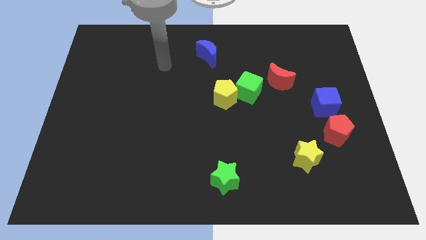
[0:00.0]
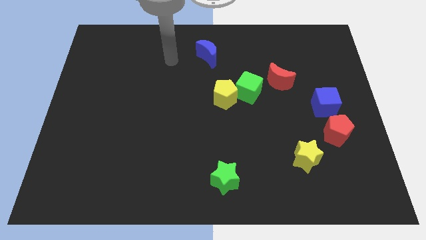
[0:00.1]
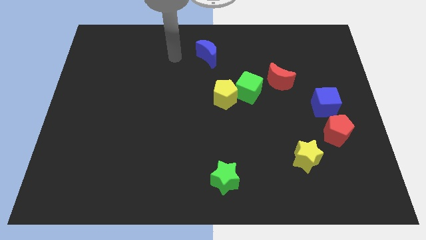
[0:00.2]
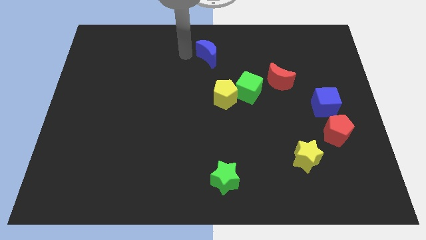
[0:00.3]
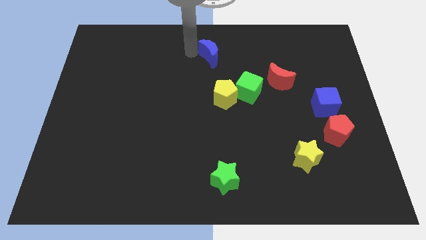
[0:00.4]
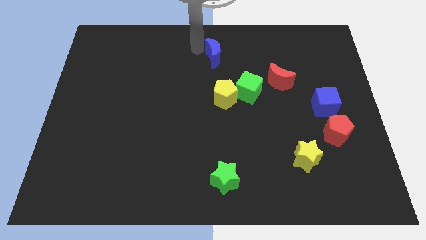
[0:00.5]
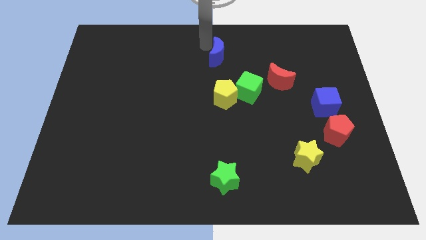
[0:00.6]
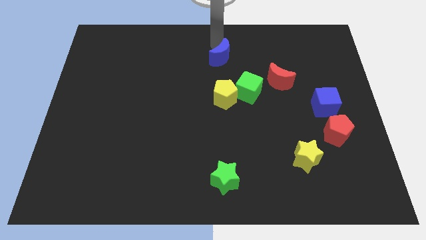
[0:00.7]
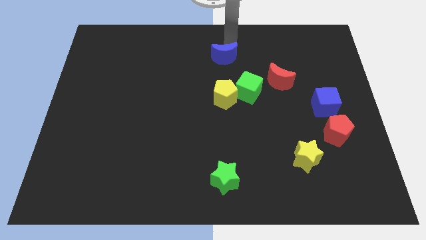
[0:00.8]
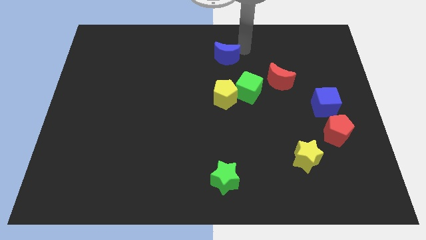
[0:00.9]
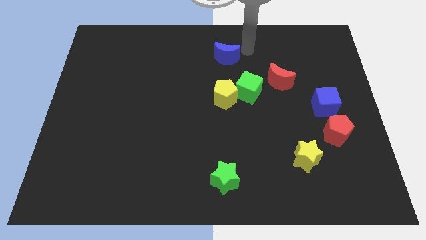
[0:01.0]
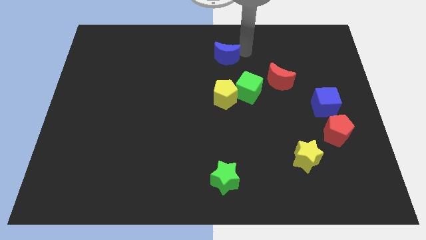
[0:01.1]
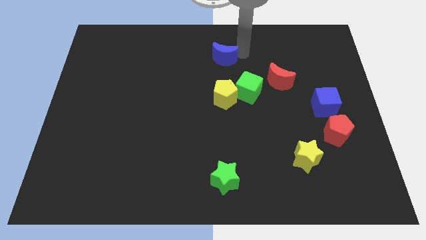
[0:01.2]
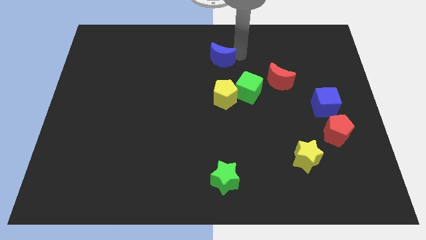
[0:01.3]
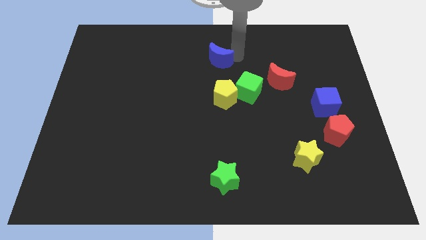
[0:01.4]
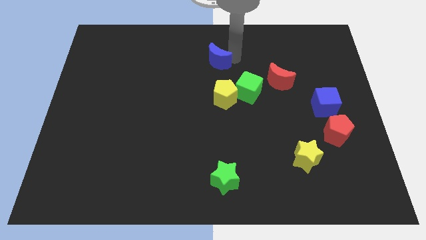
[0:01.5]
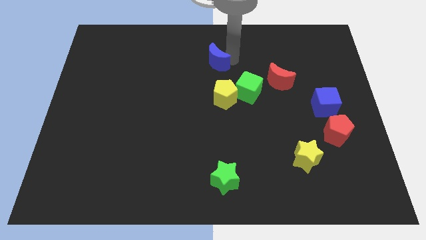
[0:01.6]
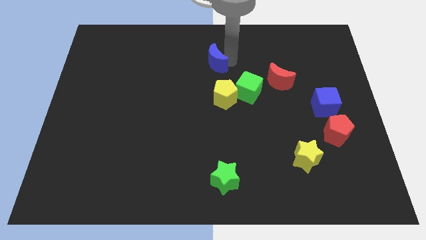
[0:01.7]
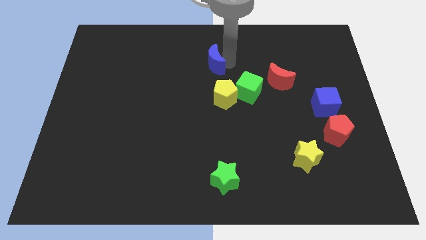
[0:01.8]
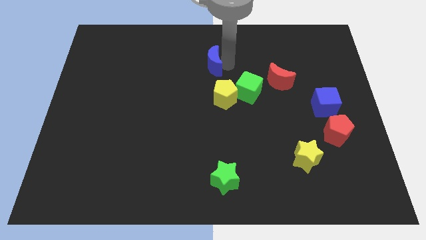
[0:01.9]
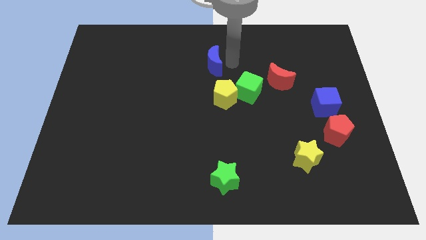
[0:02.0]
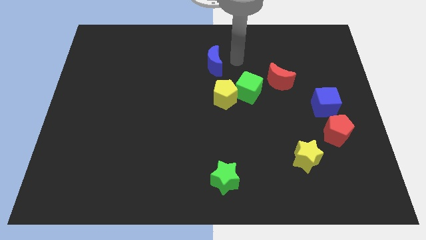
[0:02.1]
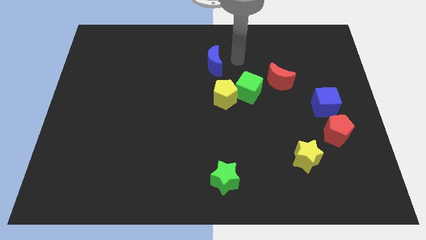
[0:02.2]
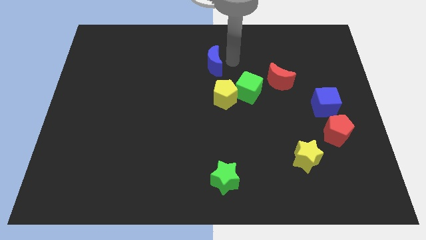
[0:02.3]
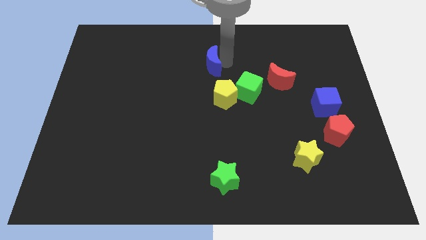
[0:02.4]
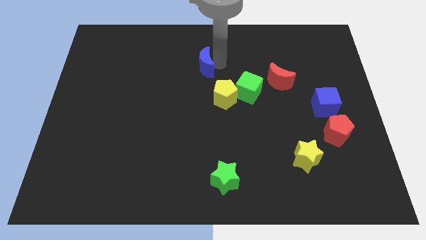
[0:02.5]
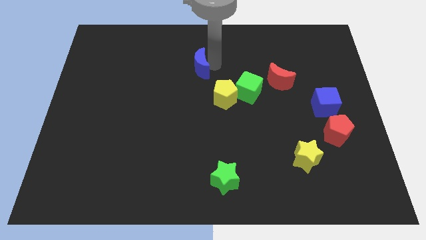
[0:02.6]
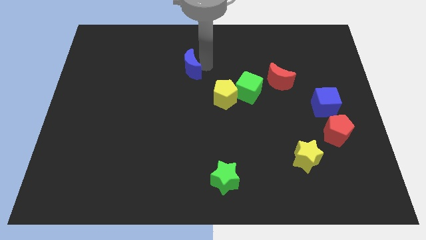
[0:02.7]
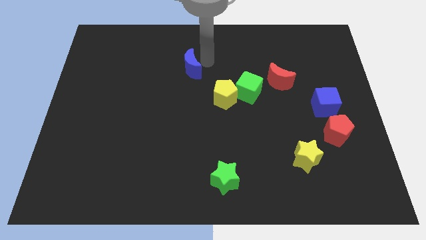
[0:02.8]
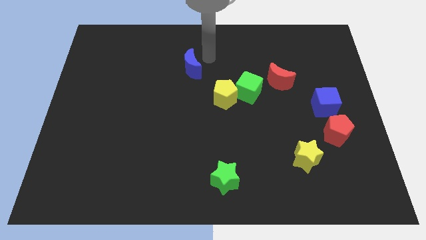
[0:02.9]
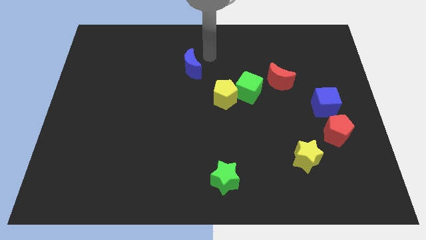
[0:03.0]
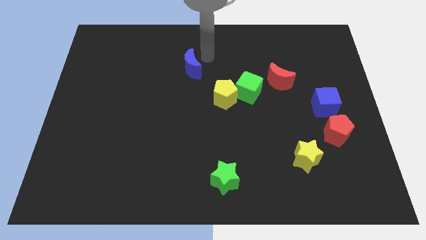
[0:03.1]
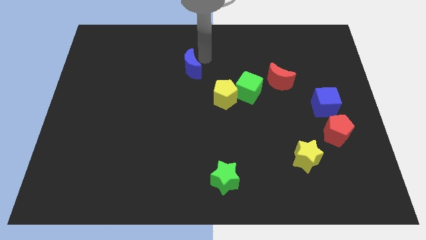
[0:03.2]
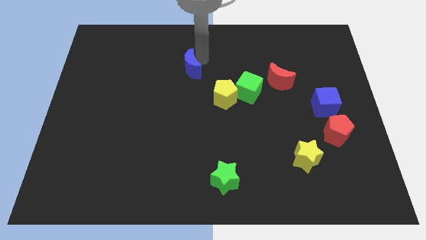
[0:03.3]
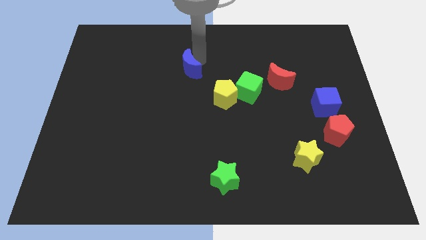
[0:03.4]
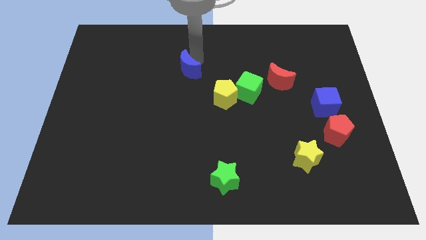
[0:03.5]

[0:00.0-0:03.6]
move the blue moon down and to the left a little

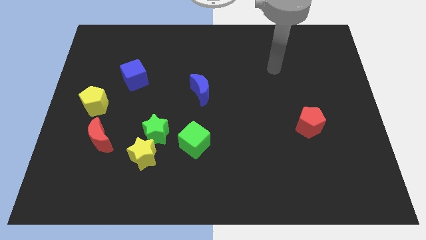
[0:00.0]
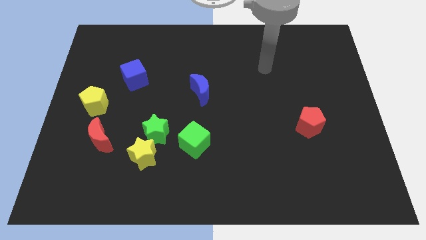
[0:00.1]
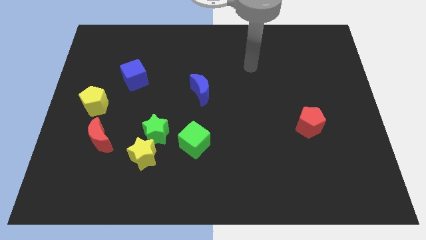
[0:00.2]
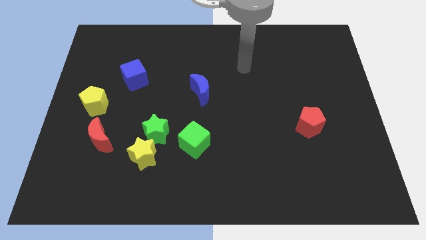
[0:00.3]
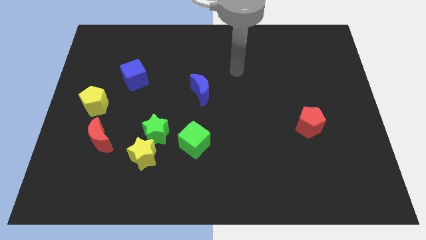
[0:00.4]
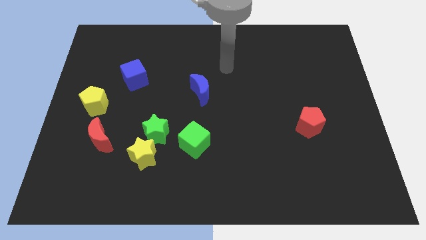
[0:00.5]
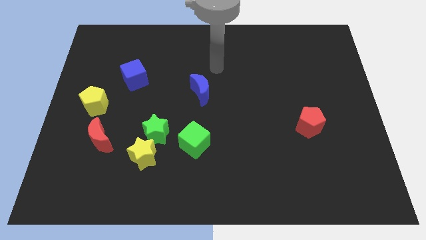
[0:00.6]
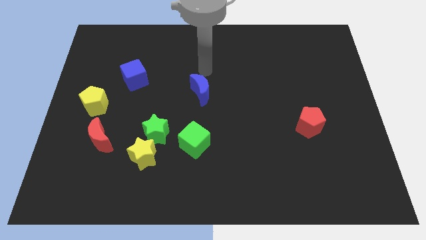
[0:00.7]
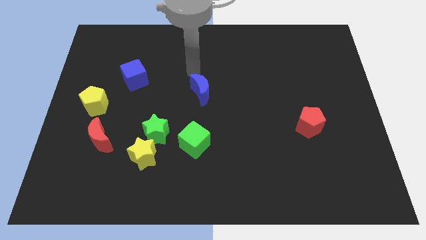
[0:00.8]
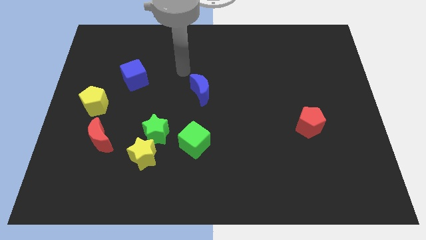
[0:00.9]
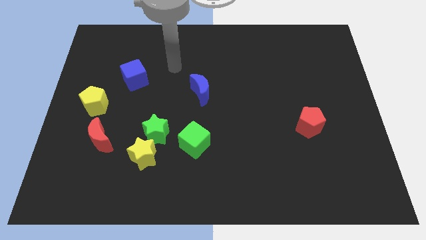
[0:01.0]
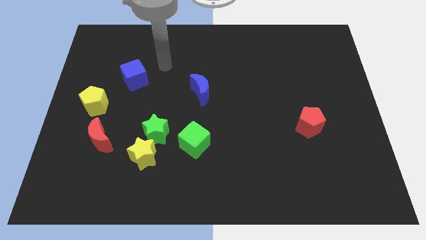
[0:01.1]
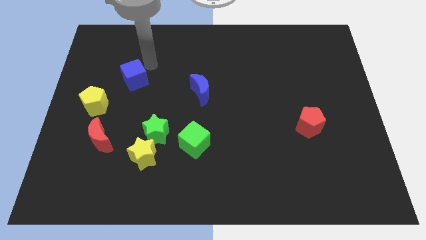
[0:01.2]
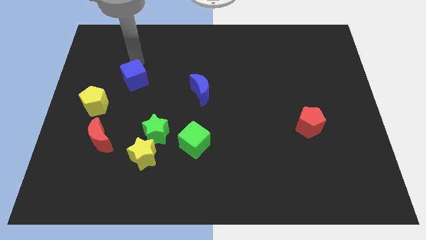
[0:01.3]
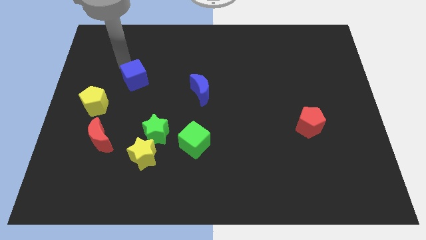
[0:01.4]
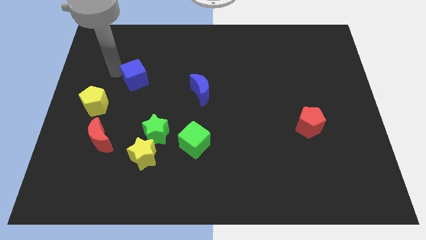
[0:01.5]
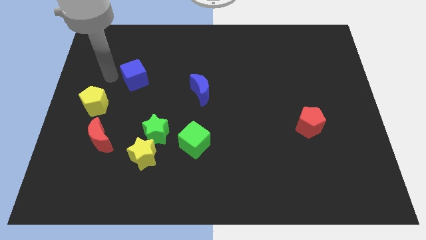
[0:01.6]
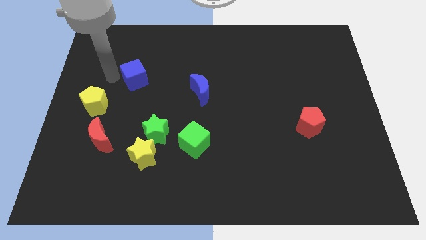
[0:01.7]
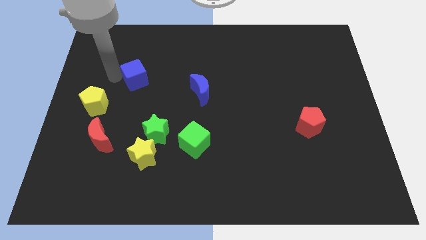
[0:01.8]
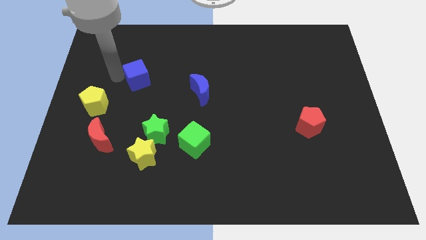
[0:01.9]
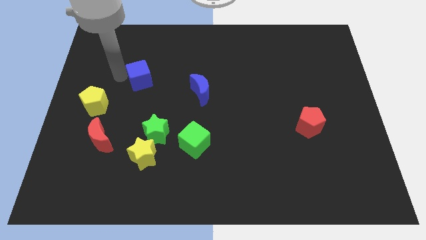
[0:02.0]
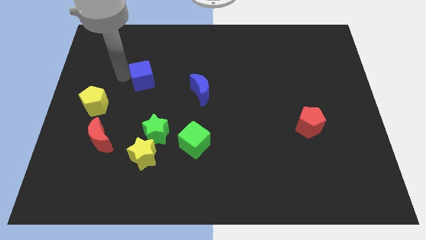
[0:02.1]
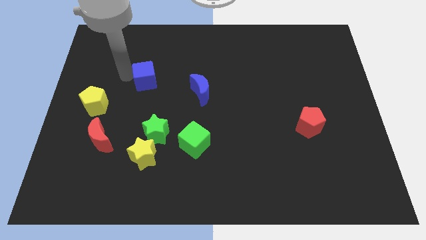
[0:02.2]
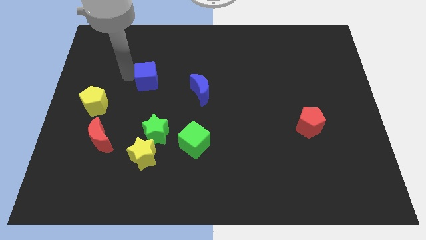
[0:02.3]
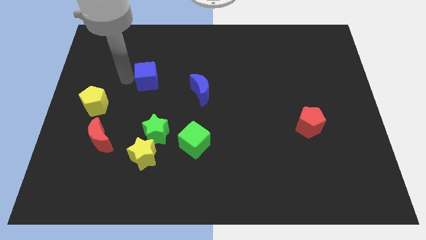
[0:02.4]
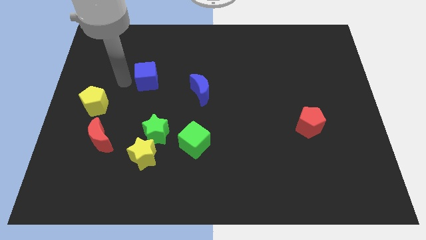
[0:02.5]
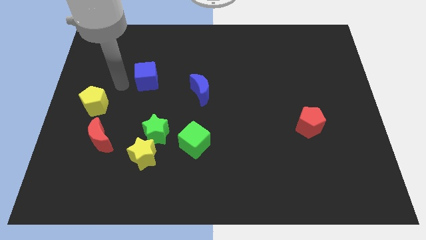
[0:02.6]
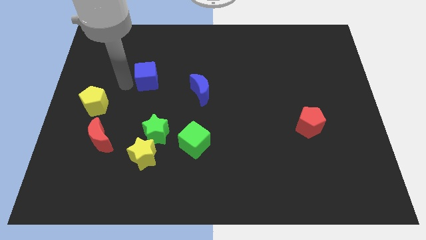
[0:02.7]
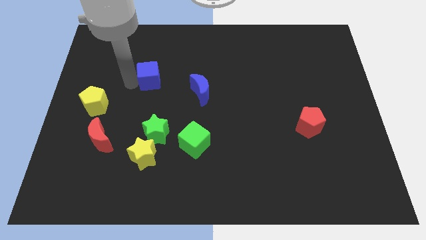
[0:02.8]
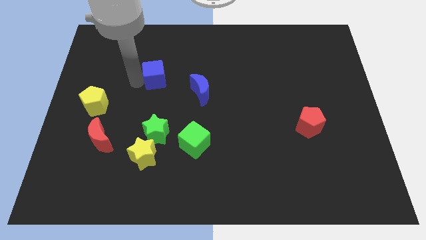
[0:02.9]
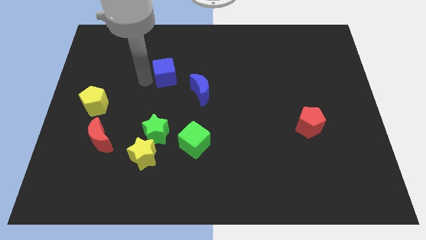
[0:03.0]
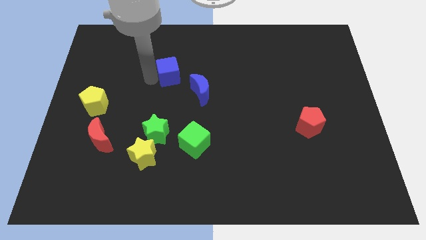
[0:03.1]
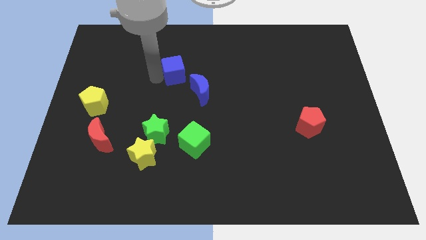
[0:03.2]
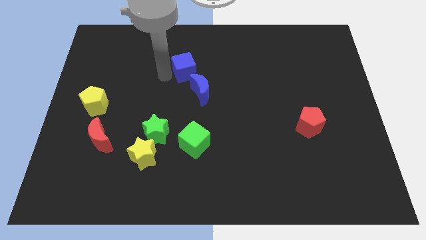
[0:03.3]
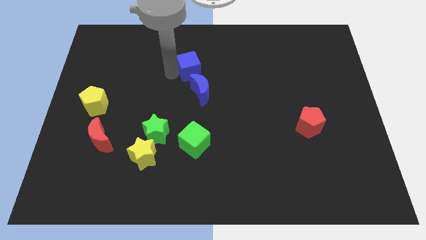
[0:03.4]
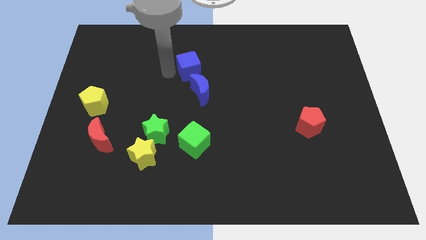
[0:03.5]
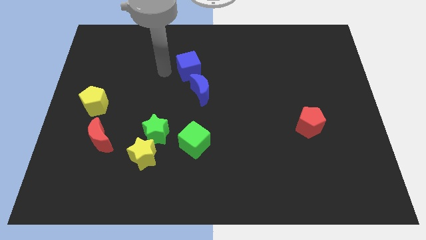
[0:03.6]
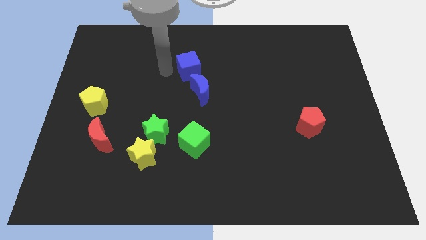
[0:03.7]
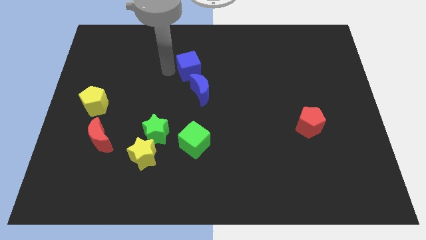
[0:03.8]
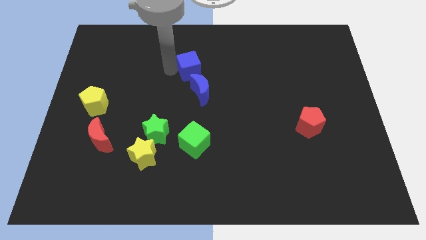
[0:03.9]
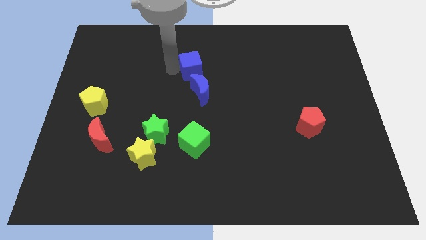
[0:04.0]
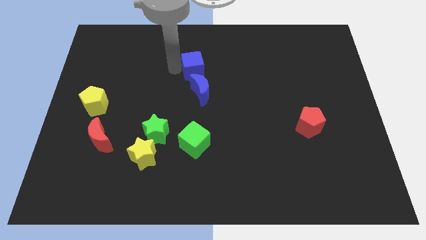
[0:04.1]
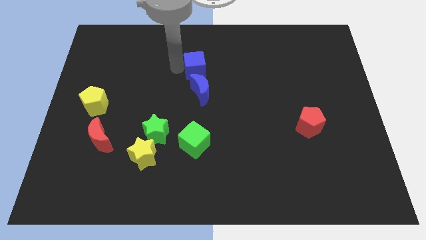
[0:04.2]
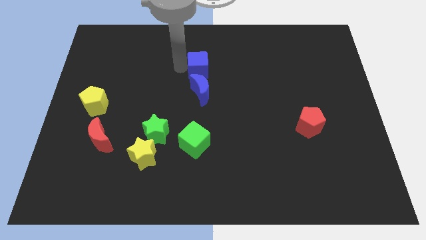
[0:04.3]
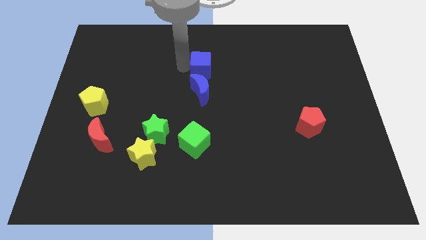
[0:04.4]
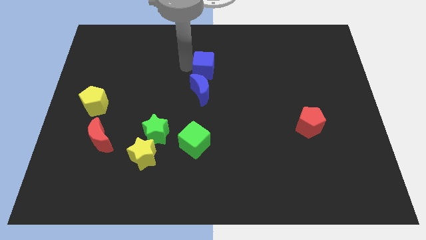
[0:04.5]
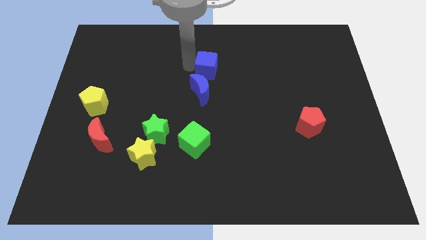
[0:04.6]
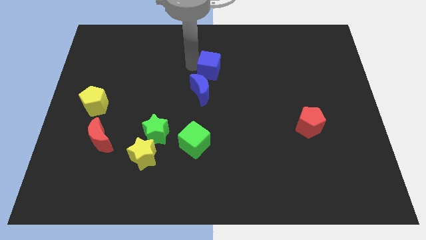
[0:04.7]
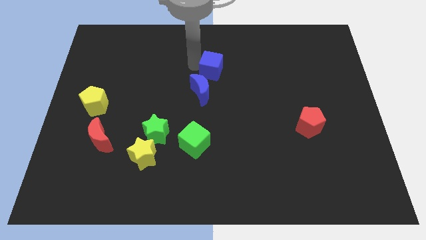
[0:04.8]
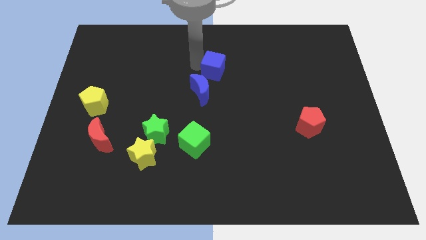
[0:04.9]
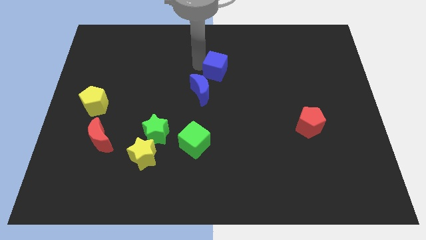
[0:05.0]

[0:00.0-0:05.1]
slide the blue cube to the right
